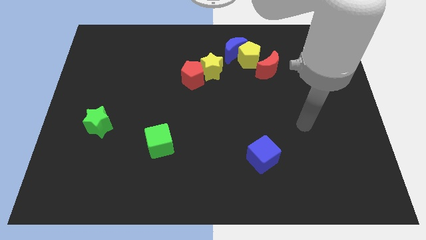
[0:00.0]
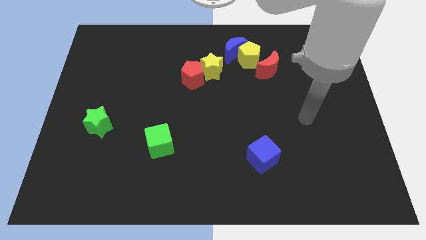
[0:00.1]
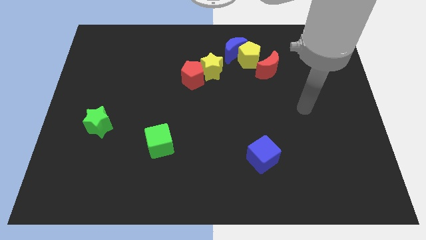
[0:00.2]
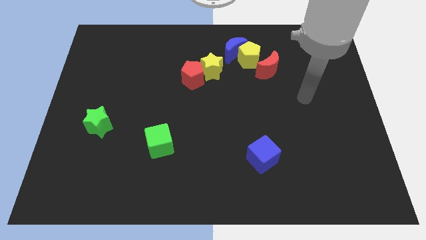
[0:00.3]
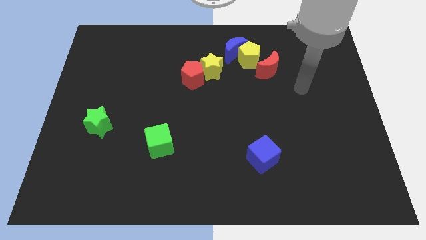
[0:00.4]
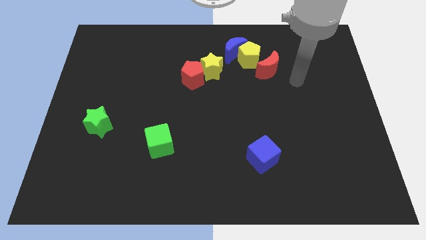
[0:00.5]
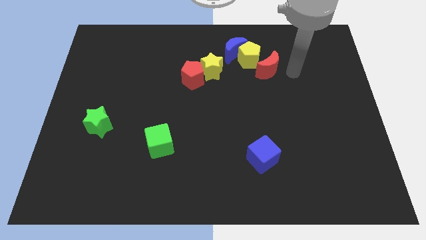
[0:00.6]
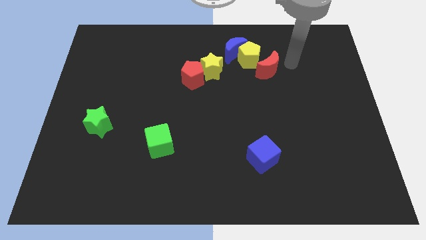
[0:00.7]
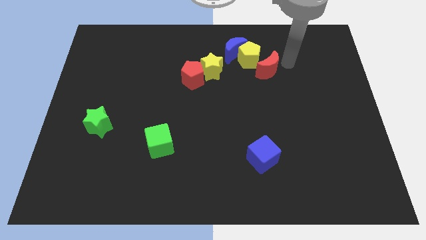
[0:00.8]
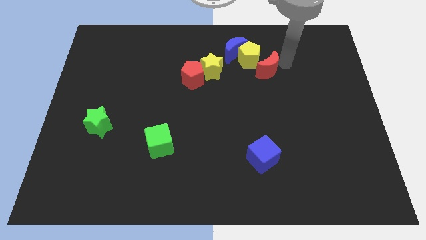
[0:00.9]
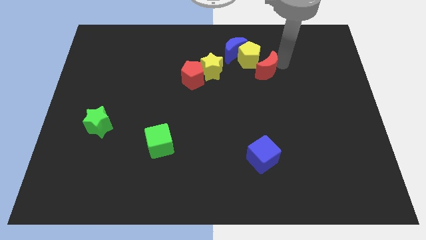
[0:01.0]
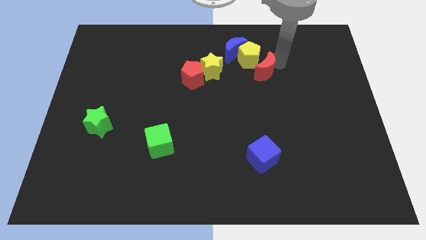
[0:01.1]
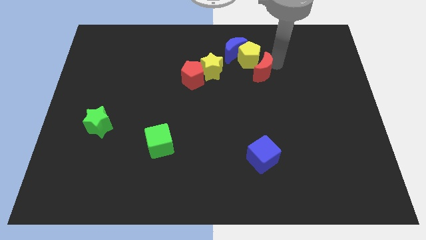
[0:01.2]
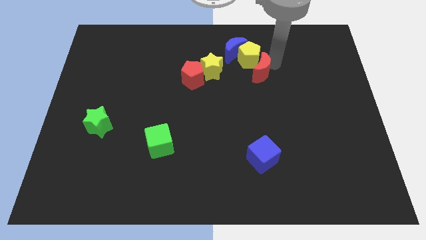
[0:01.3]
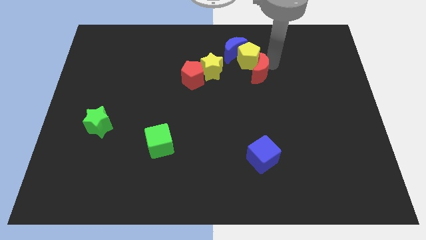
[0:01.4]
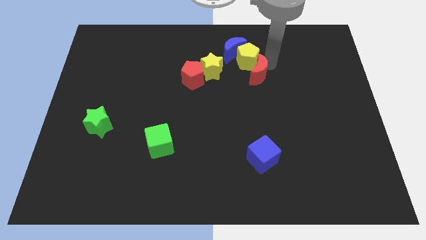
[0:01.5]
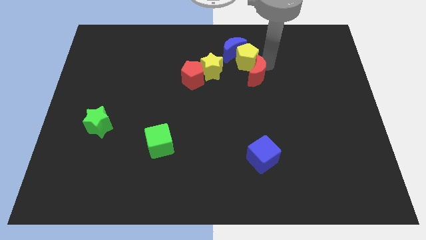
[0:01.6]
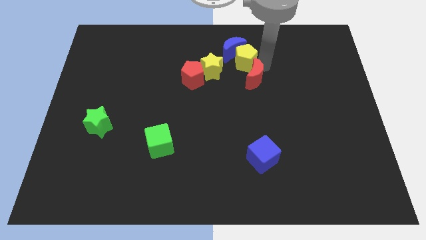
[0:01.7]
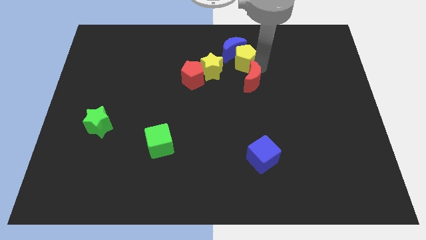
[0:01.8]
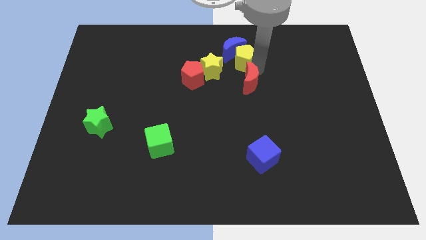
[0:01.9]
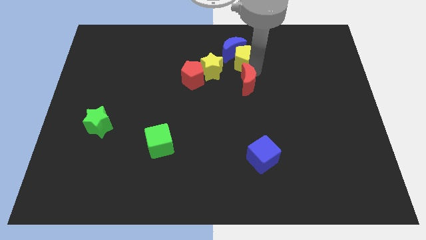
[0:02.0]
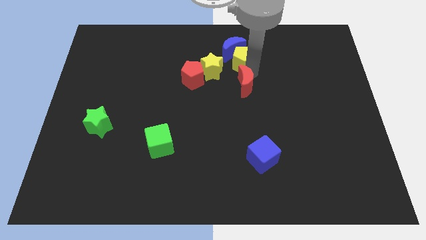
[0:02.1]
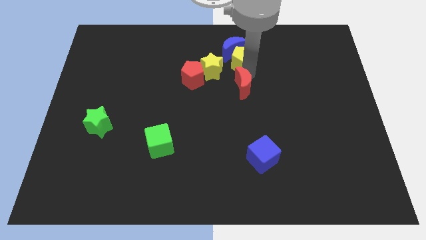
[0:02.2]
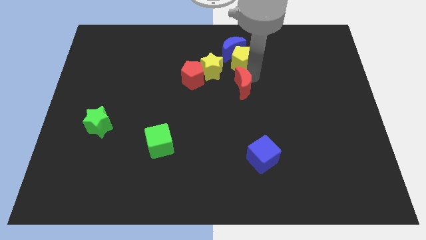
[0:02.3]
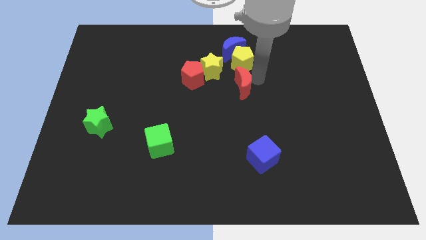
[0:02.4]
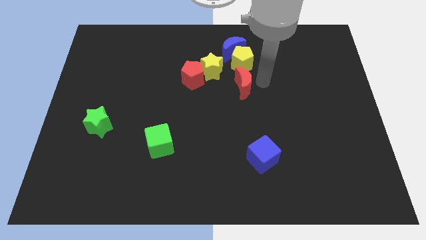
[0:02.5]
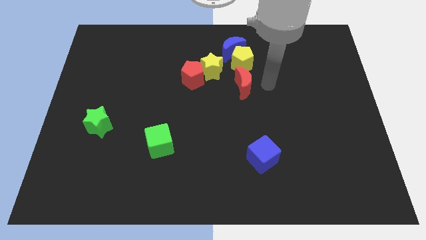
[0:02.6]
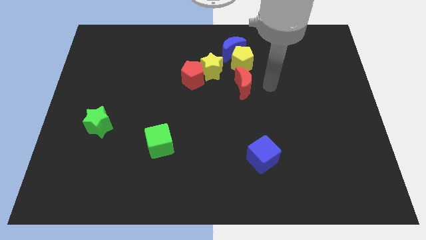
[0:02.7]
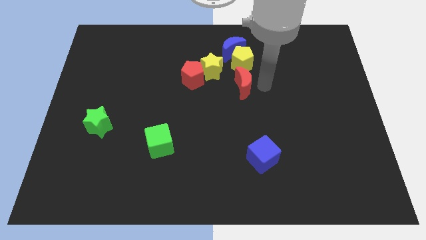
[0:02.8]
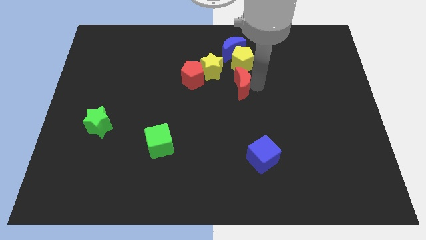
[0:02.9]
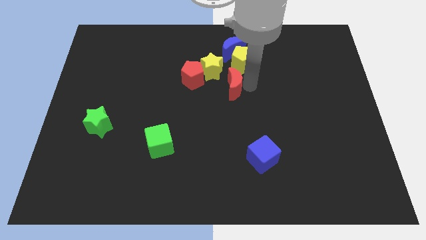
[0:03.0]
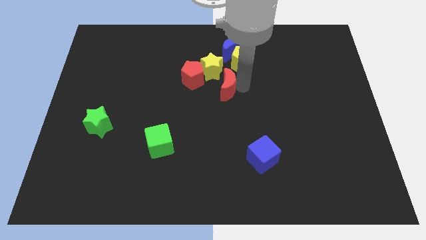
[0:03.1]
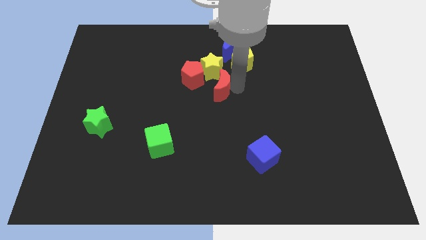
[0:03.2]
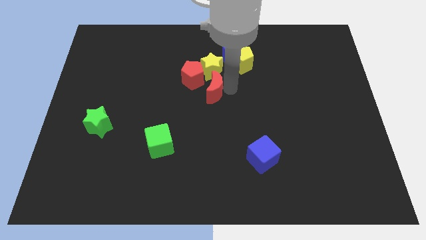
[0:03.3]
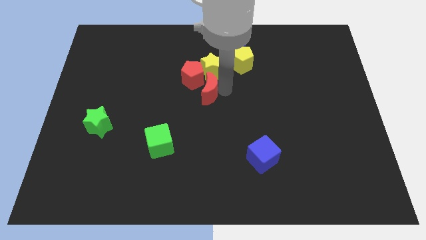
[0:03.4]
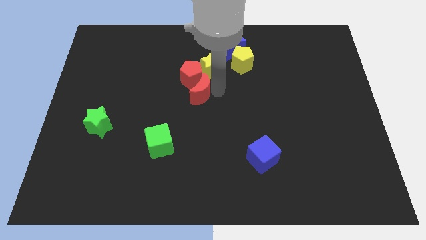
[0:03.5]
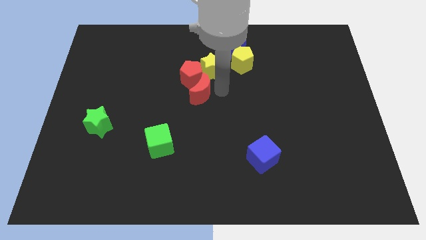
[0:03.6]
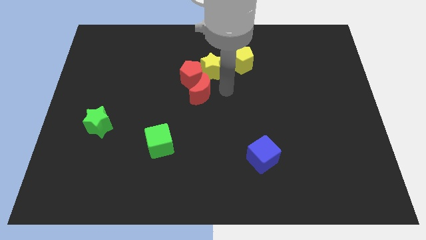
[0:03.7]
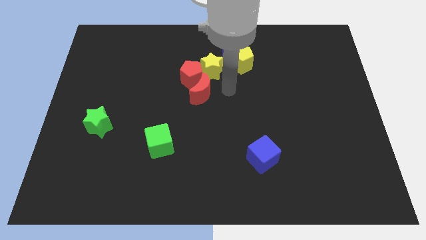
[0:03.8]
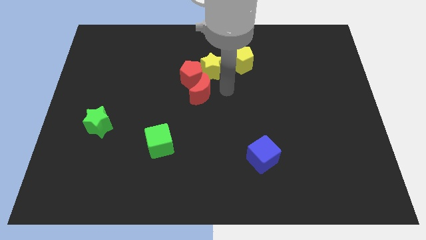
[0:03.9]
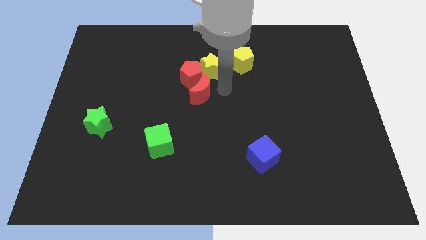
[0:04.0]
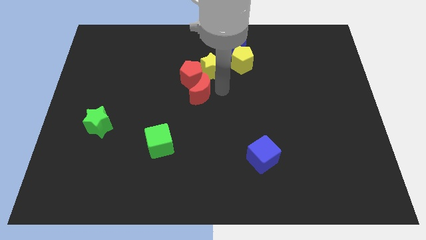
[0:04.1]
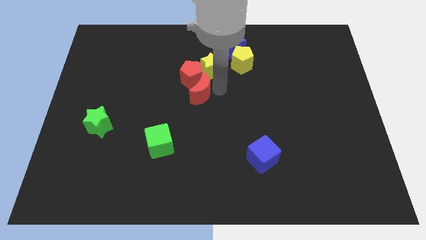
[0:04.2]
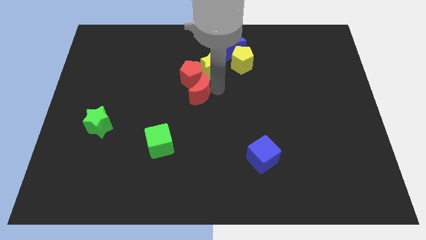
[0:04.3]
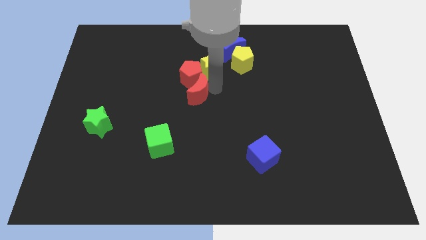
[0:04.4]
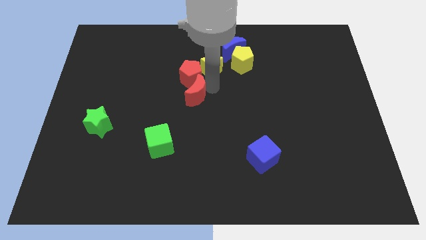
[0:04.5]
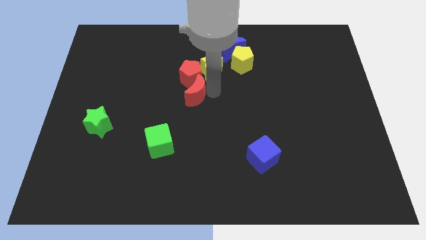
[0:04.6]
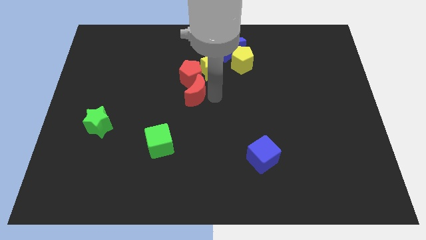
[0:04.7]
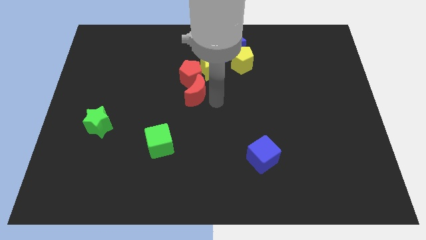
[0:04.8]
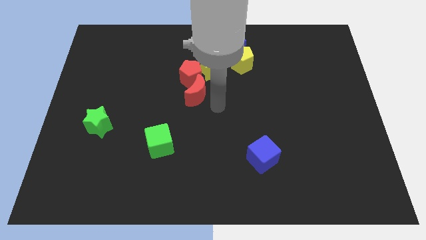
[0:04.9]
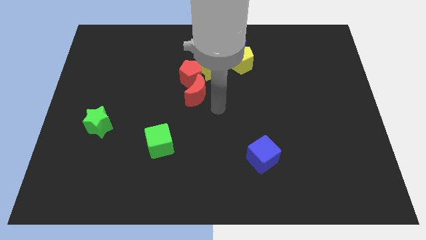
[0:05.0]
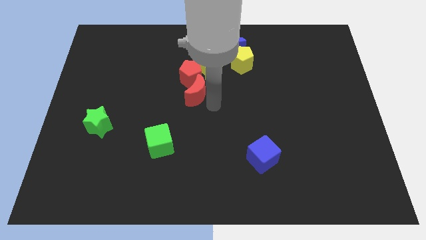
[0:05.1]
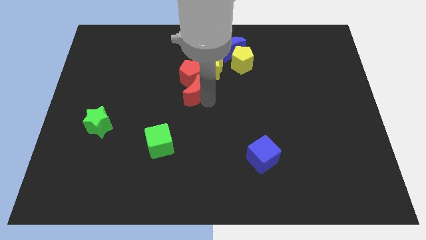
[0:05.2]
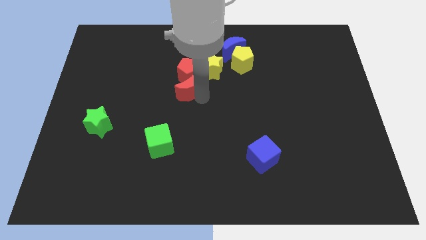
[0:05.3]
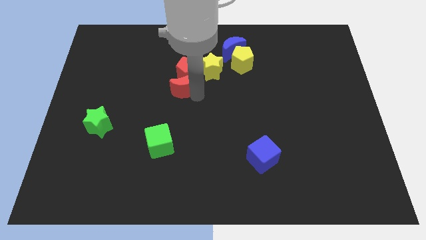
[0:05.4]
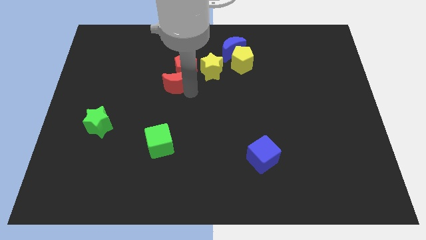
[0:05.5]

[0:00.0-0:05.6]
move the red moon to the left

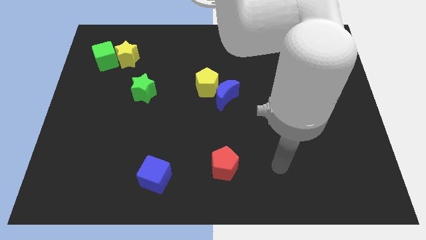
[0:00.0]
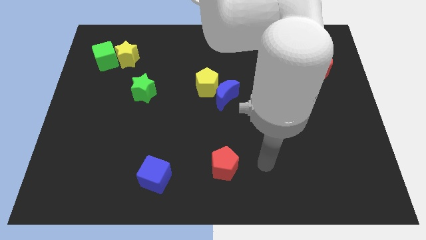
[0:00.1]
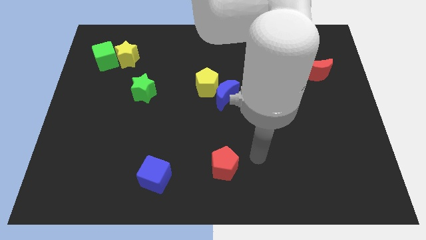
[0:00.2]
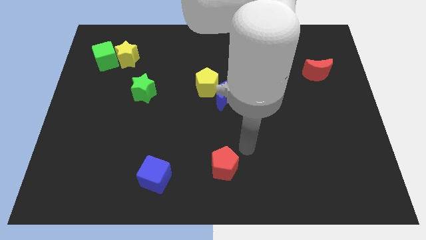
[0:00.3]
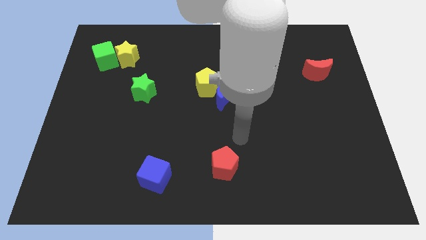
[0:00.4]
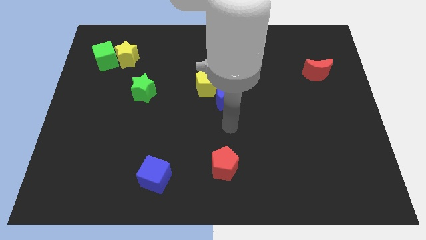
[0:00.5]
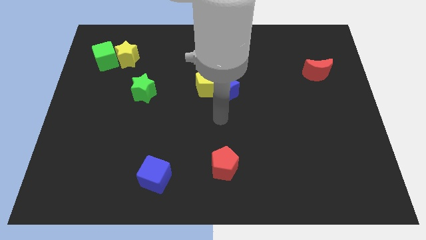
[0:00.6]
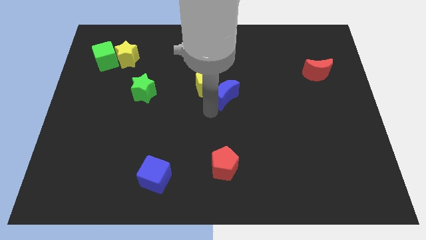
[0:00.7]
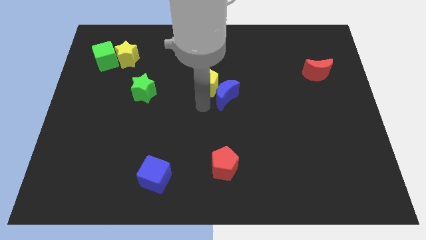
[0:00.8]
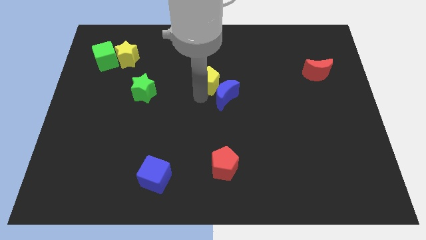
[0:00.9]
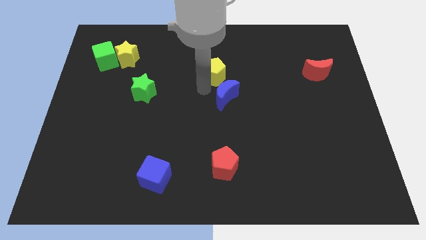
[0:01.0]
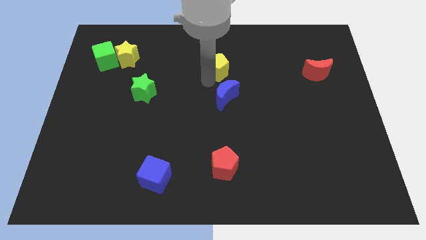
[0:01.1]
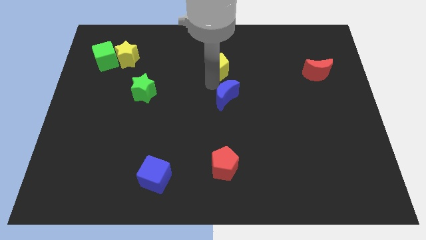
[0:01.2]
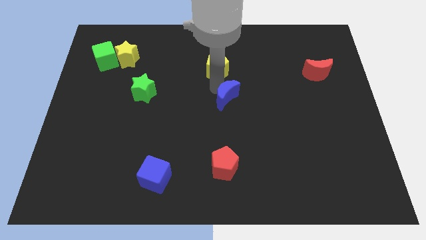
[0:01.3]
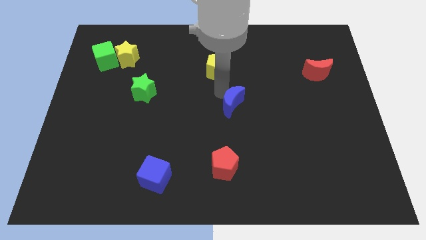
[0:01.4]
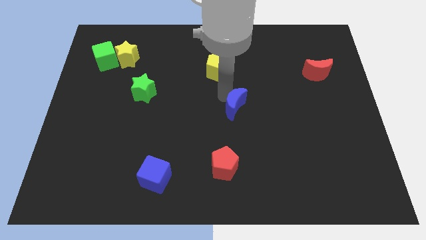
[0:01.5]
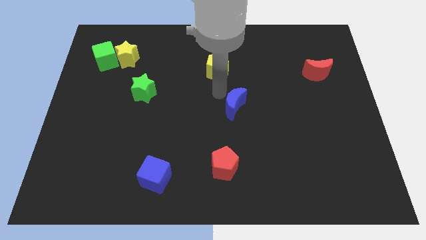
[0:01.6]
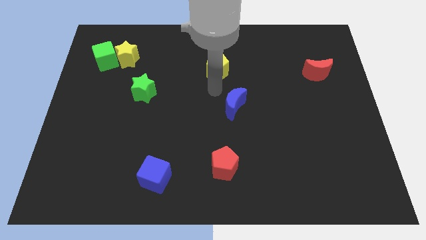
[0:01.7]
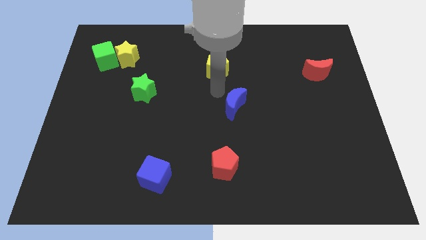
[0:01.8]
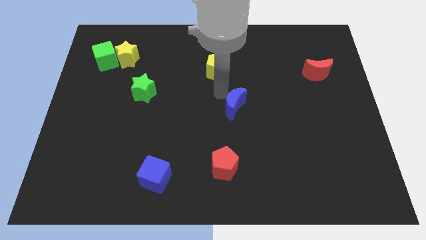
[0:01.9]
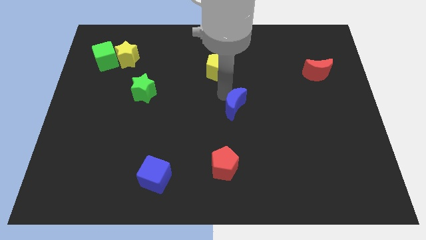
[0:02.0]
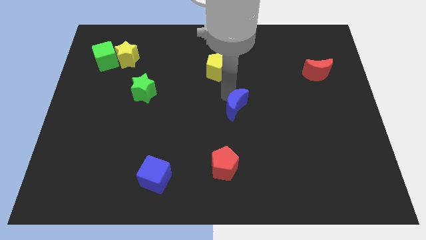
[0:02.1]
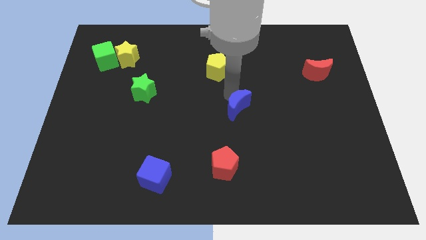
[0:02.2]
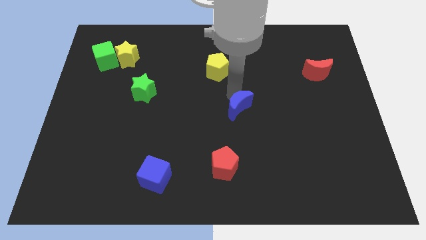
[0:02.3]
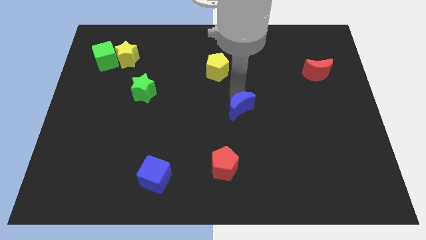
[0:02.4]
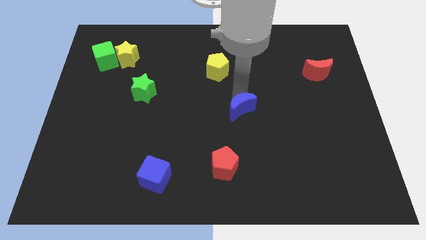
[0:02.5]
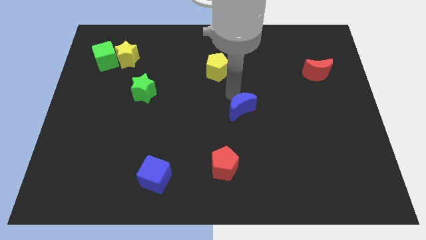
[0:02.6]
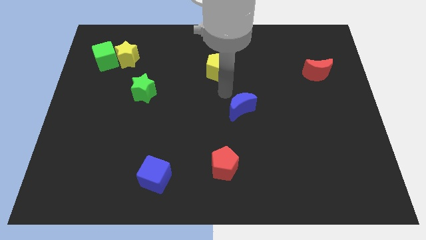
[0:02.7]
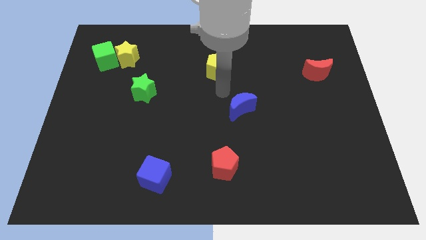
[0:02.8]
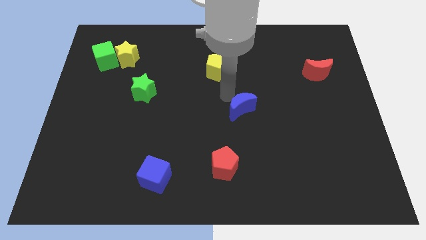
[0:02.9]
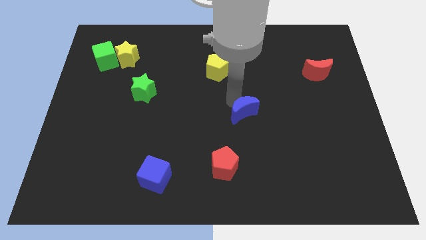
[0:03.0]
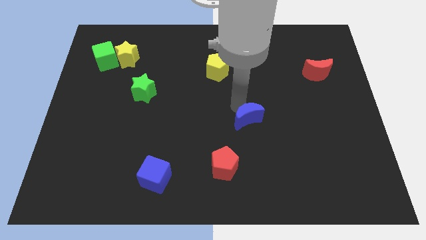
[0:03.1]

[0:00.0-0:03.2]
move the blue moon downwards and right diagonally a little bit
